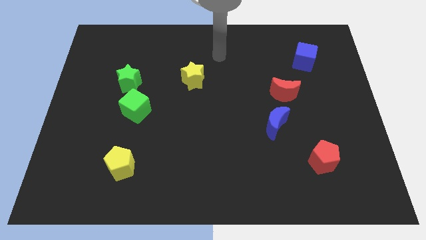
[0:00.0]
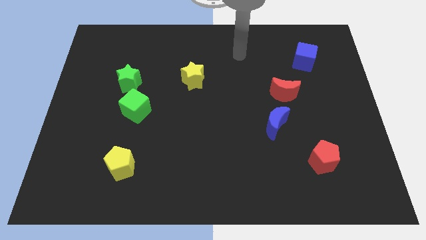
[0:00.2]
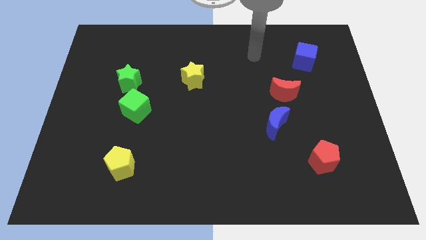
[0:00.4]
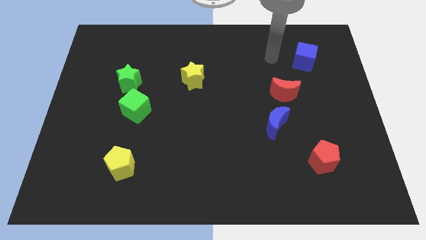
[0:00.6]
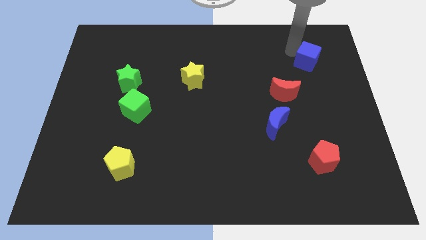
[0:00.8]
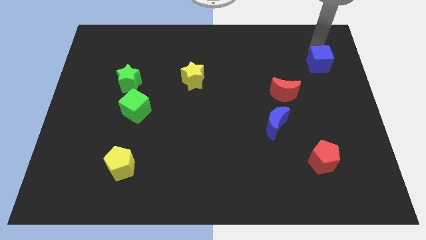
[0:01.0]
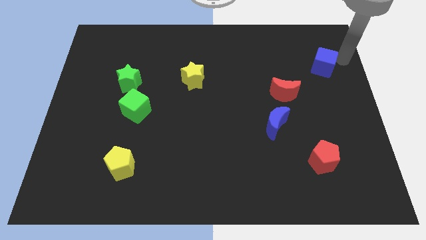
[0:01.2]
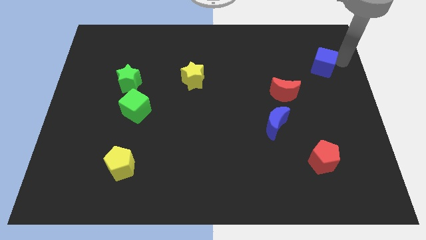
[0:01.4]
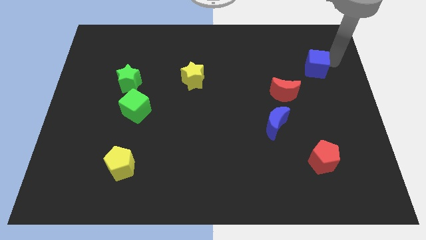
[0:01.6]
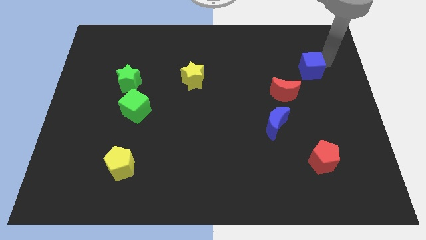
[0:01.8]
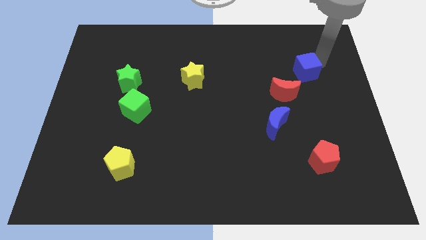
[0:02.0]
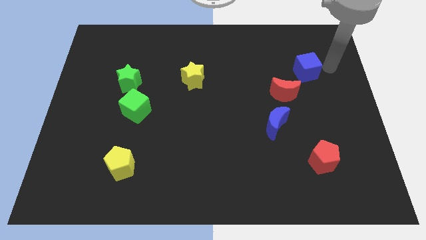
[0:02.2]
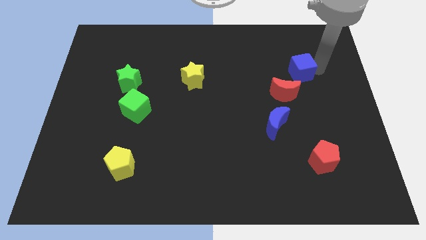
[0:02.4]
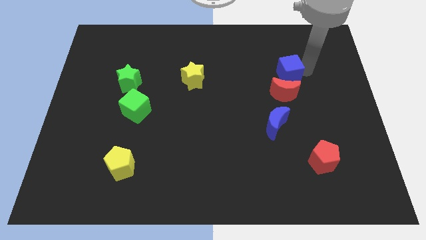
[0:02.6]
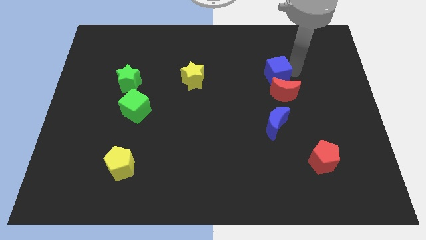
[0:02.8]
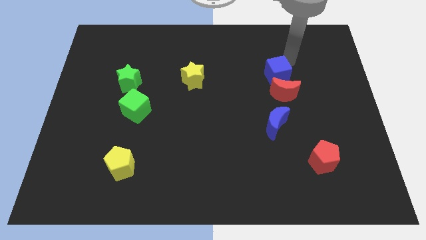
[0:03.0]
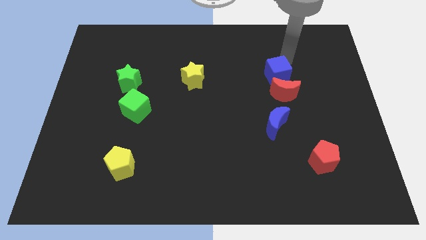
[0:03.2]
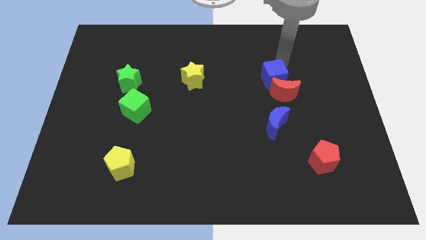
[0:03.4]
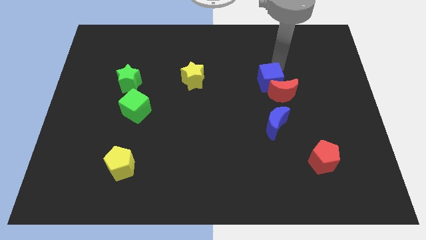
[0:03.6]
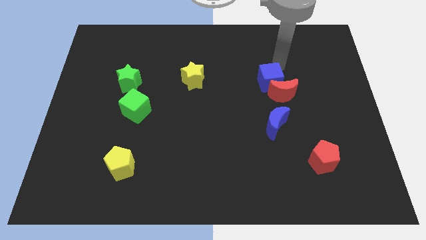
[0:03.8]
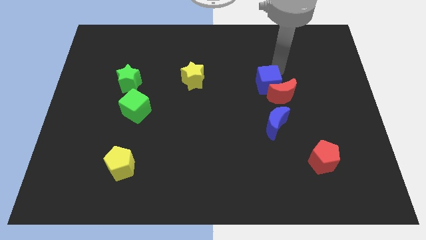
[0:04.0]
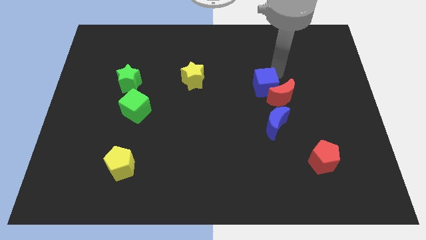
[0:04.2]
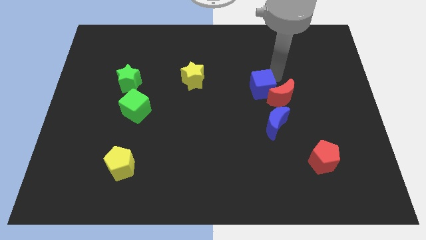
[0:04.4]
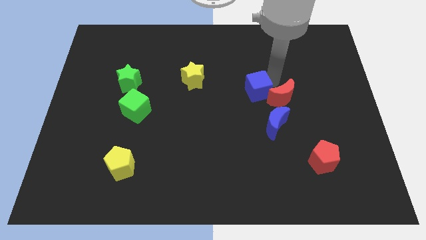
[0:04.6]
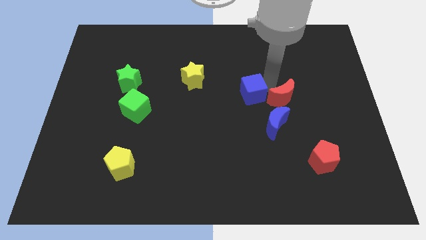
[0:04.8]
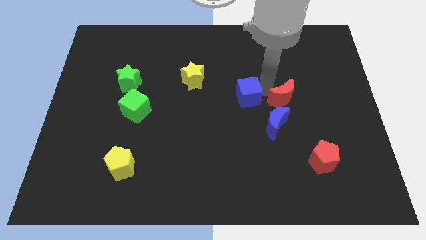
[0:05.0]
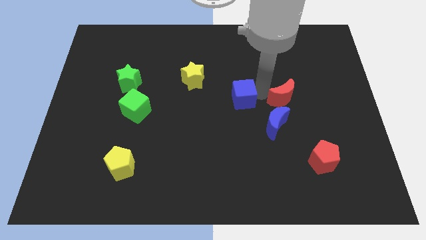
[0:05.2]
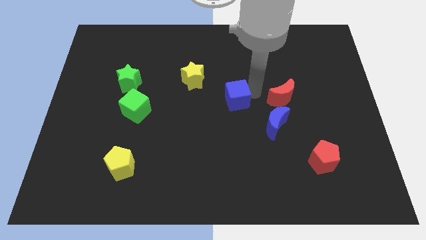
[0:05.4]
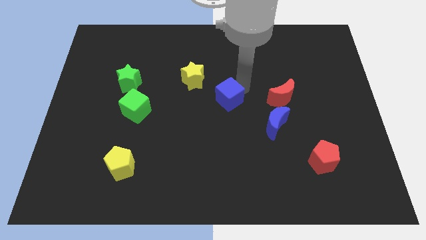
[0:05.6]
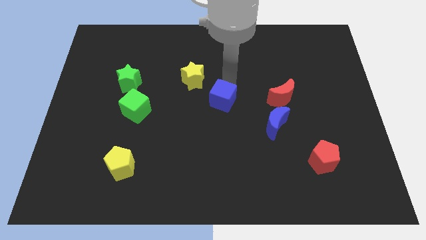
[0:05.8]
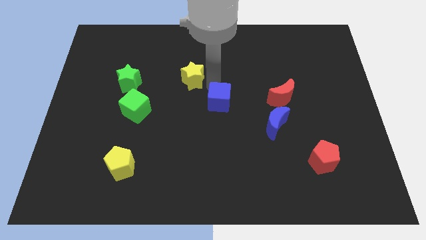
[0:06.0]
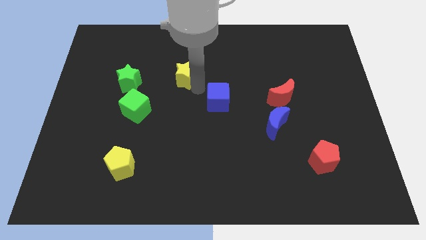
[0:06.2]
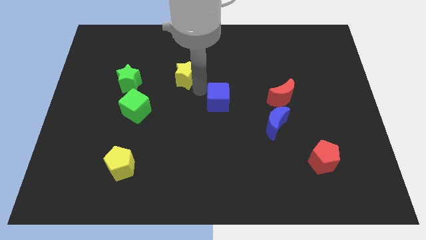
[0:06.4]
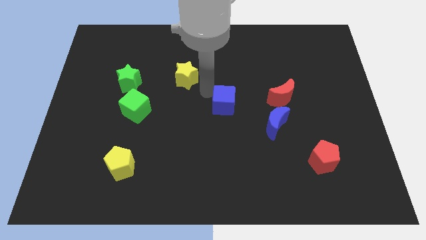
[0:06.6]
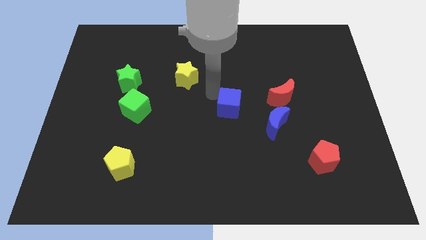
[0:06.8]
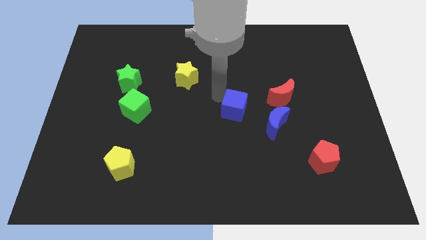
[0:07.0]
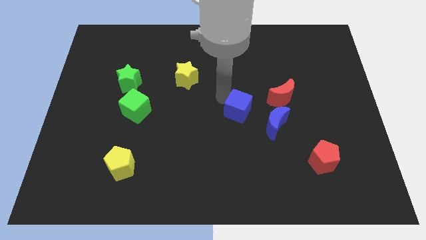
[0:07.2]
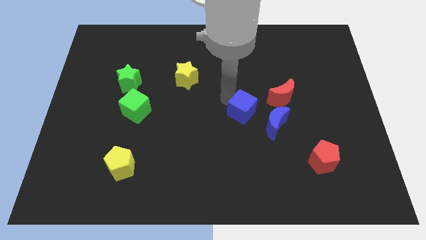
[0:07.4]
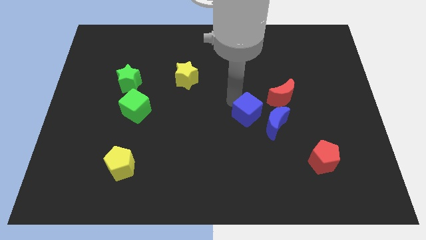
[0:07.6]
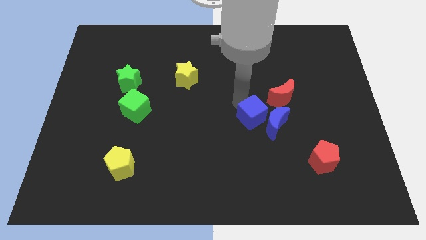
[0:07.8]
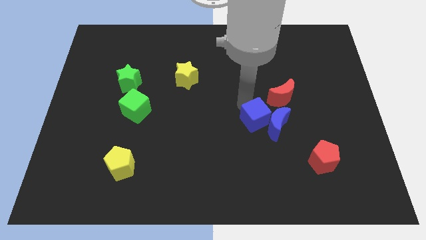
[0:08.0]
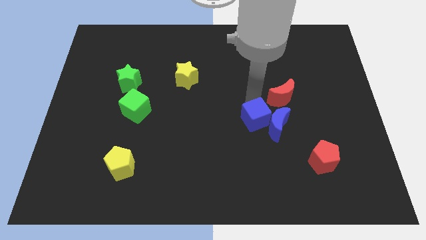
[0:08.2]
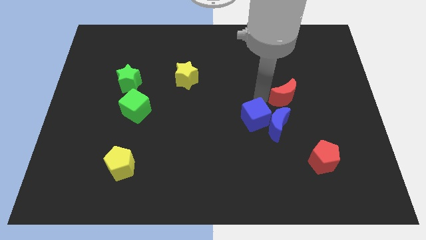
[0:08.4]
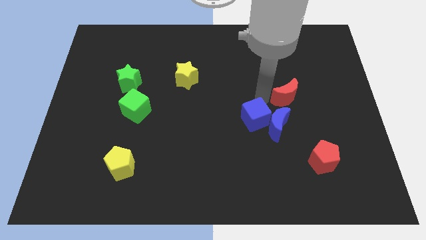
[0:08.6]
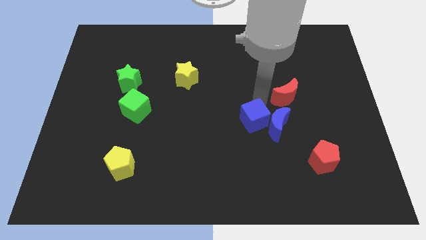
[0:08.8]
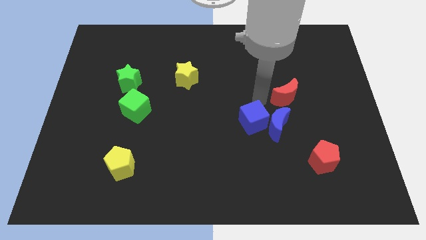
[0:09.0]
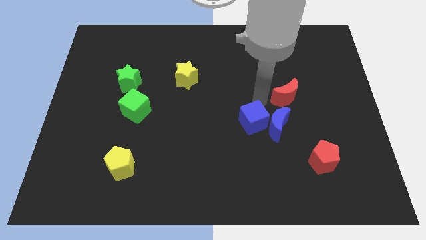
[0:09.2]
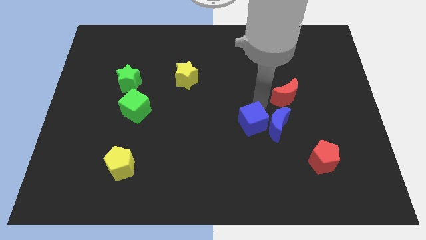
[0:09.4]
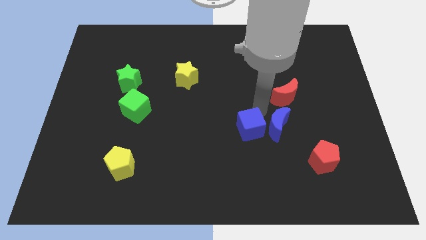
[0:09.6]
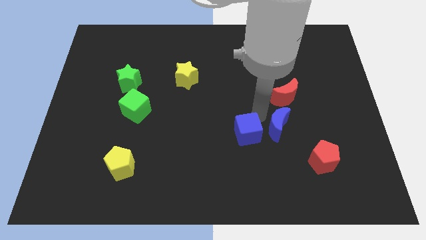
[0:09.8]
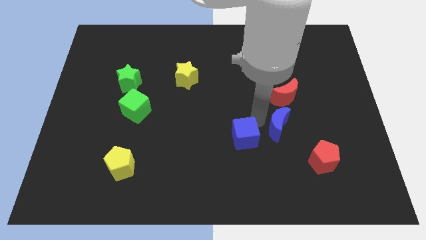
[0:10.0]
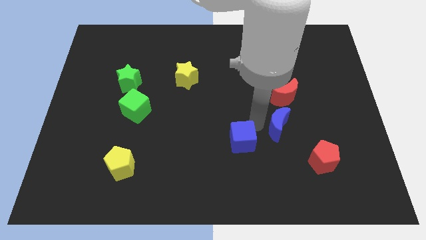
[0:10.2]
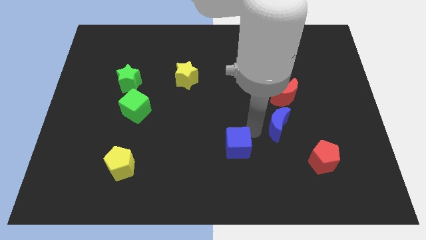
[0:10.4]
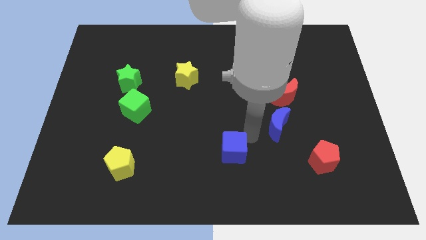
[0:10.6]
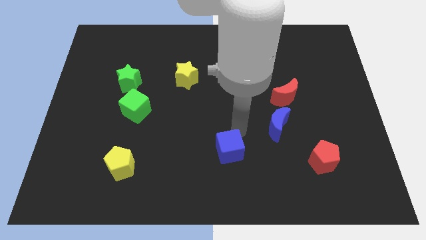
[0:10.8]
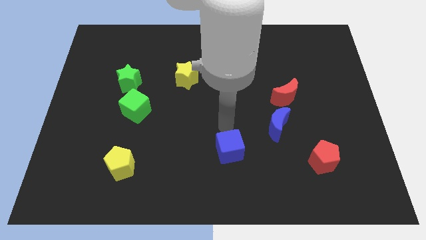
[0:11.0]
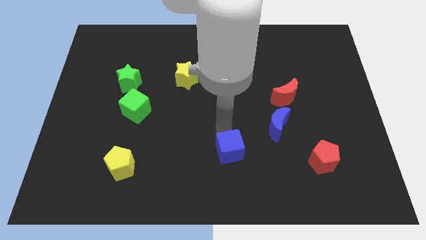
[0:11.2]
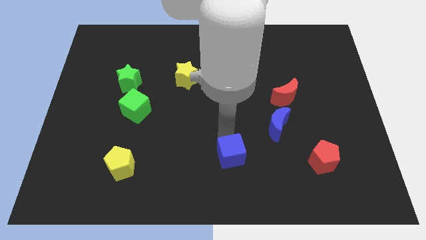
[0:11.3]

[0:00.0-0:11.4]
slide the blue cube to the bottom

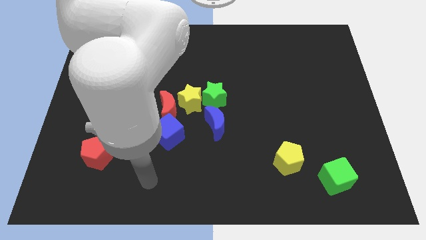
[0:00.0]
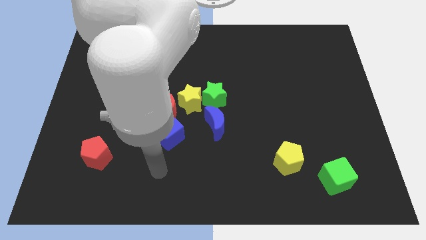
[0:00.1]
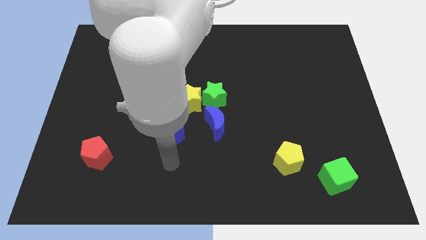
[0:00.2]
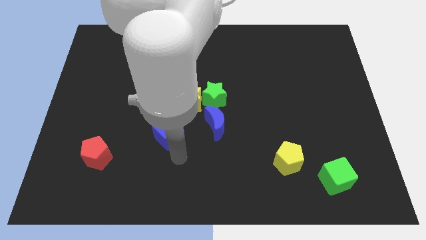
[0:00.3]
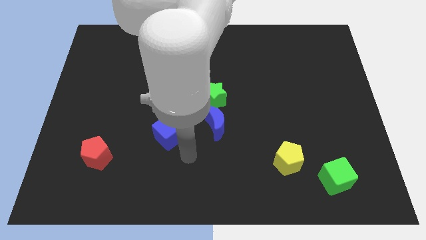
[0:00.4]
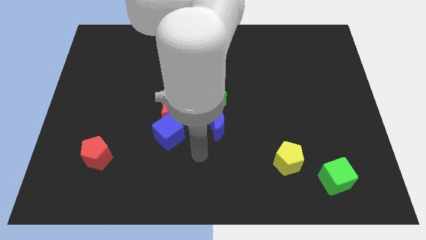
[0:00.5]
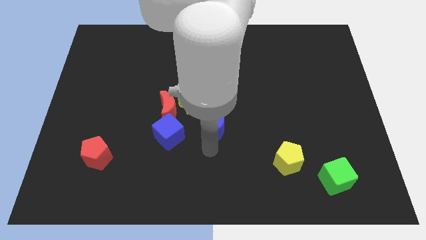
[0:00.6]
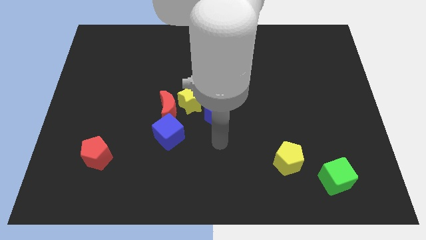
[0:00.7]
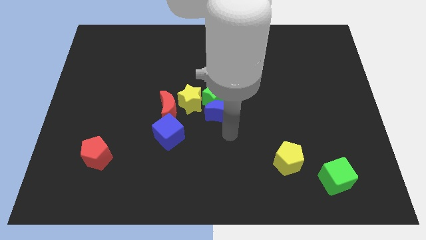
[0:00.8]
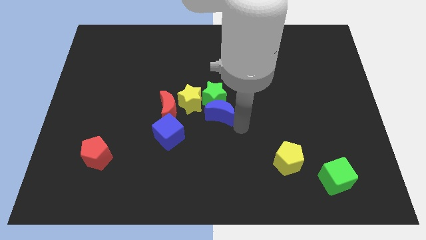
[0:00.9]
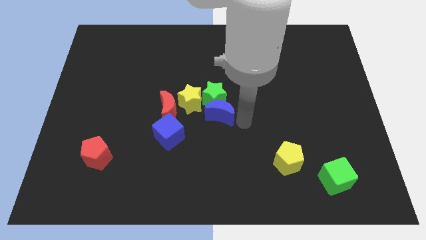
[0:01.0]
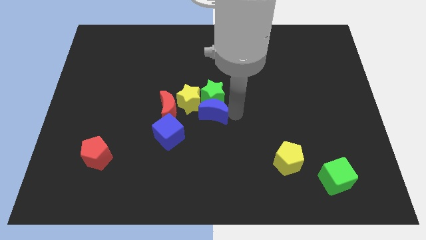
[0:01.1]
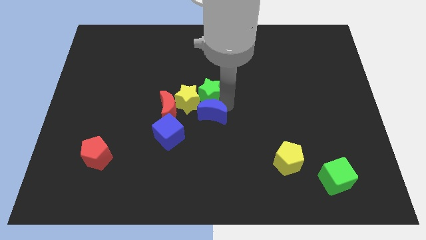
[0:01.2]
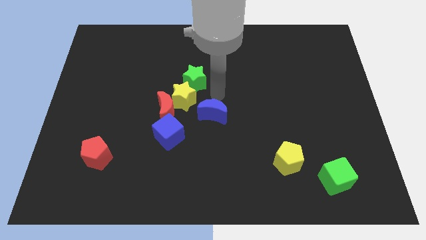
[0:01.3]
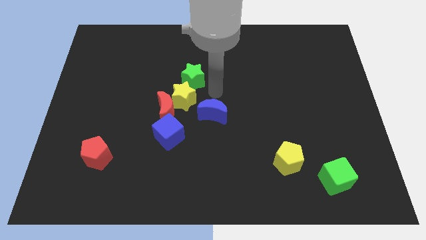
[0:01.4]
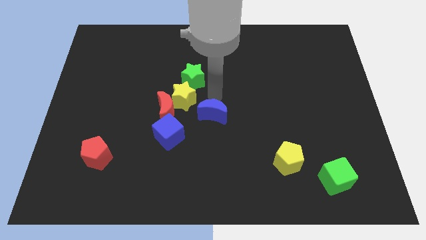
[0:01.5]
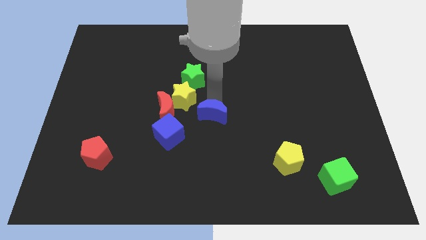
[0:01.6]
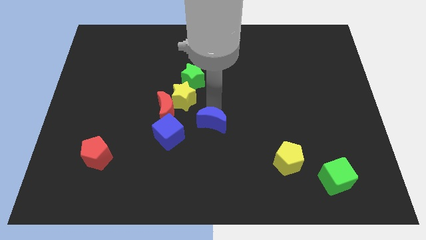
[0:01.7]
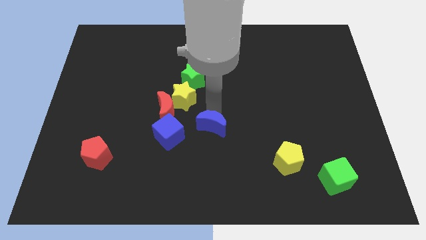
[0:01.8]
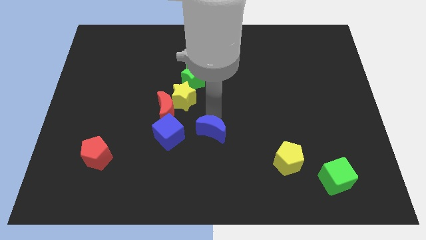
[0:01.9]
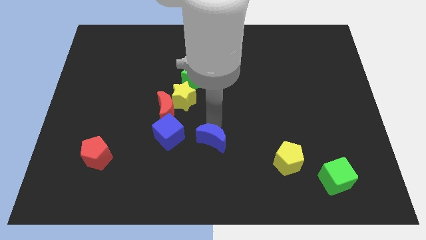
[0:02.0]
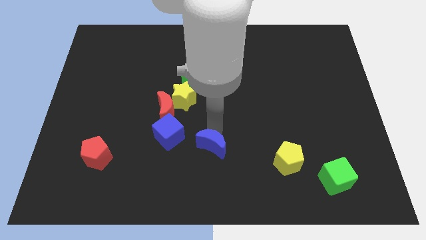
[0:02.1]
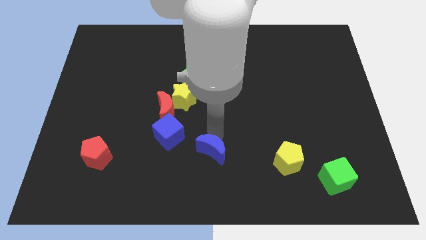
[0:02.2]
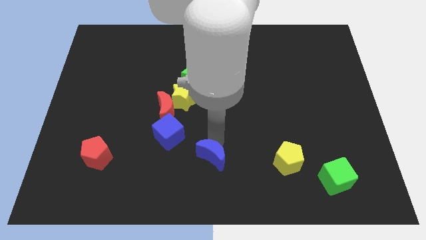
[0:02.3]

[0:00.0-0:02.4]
put the blue moon to the bottom

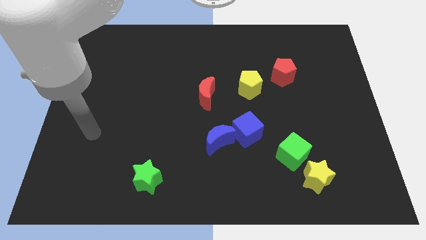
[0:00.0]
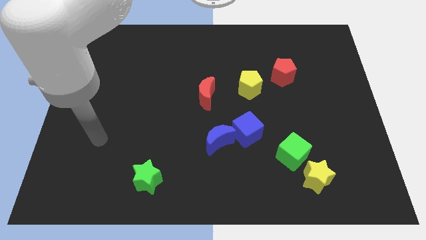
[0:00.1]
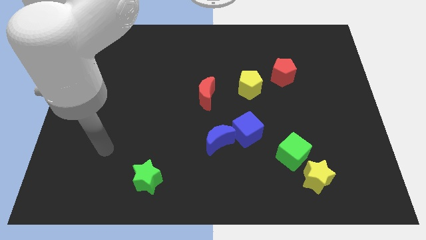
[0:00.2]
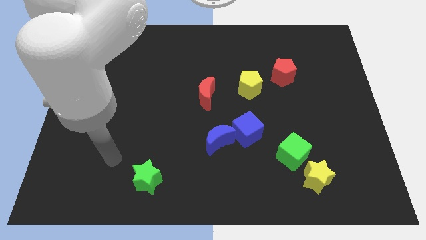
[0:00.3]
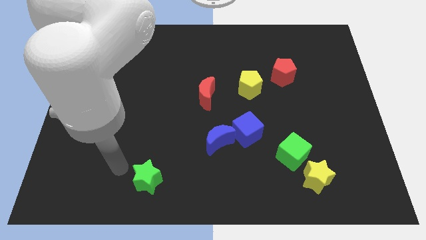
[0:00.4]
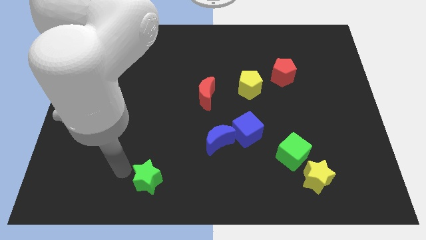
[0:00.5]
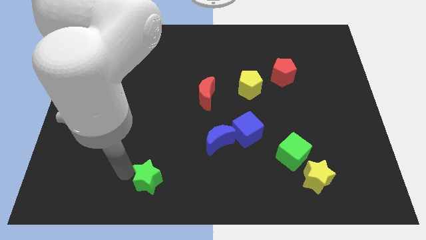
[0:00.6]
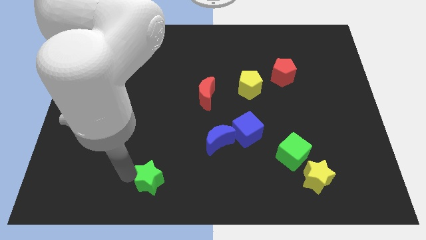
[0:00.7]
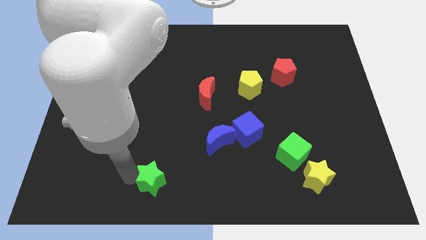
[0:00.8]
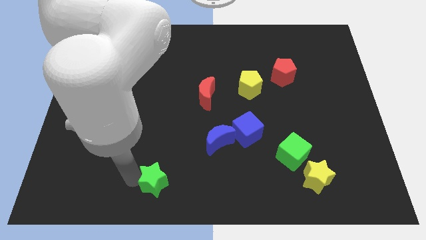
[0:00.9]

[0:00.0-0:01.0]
put the green star to the bottom side
